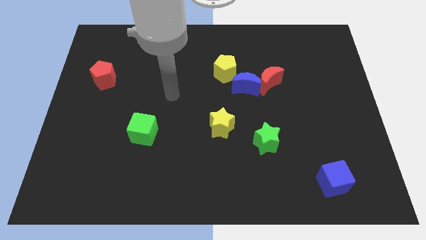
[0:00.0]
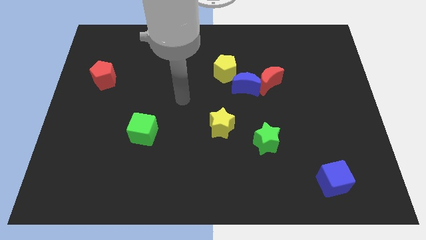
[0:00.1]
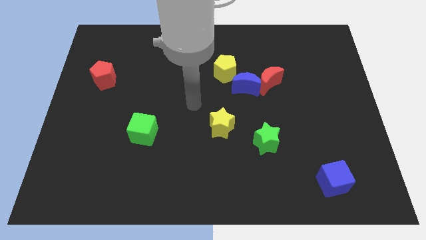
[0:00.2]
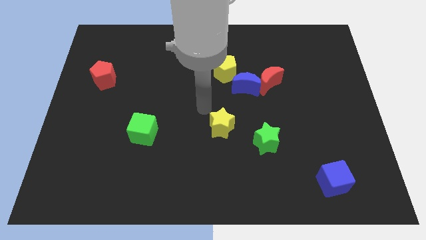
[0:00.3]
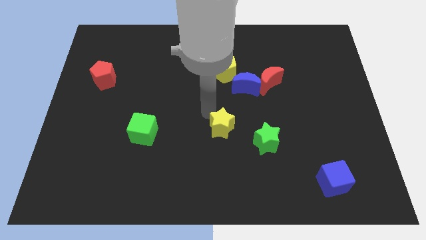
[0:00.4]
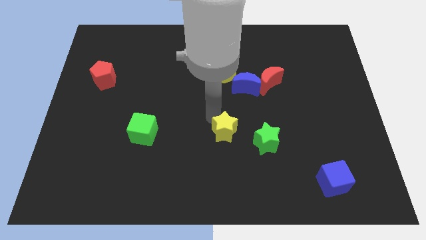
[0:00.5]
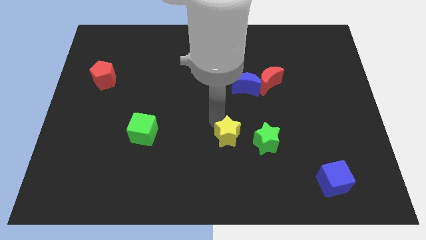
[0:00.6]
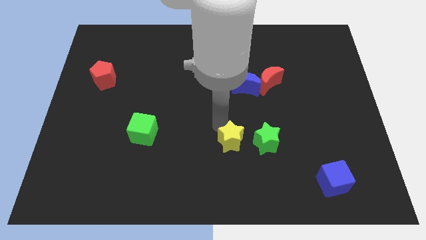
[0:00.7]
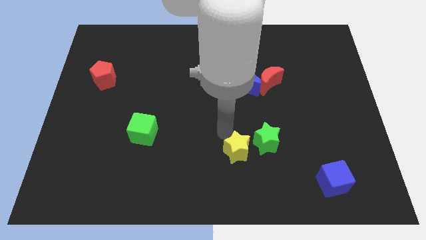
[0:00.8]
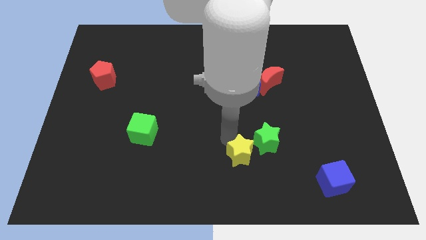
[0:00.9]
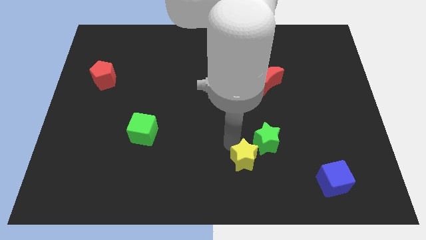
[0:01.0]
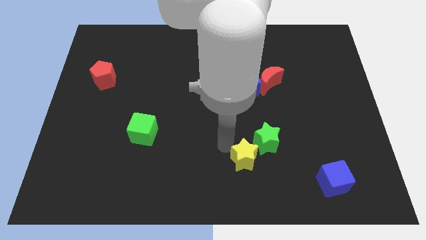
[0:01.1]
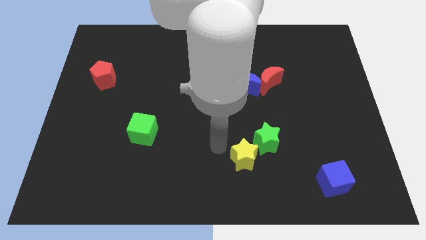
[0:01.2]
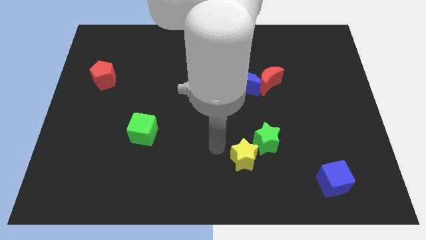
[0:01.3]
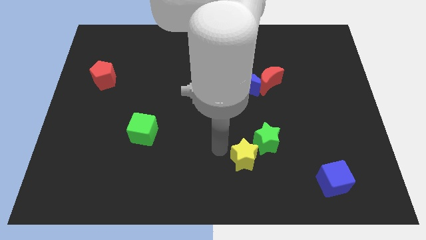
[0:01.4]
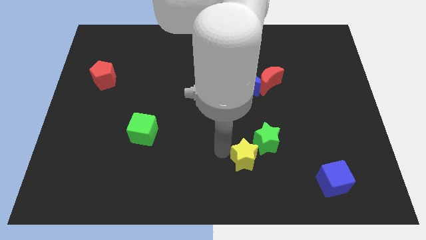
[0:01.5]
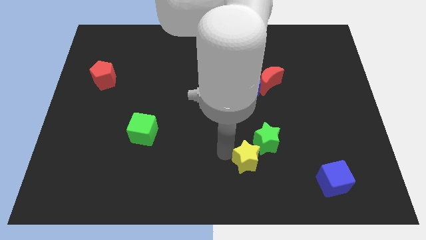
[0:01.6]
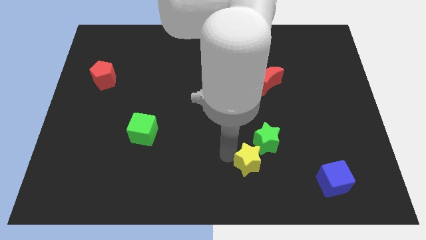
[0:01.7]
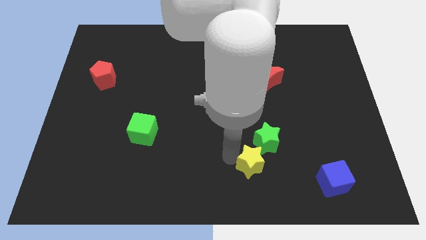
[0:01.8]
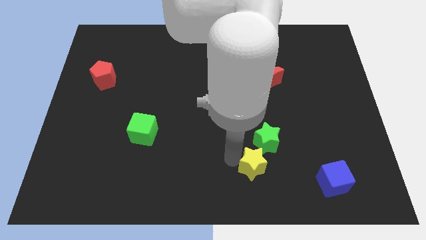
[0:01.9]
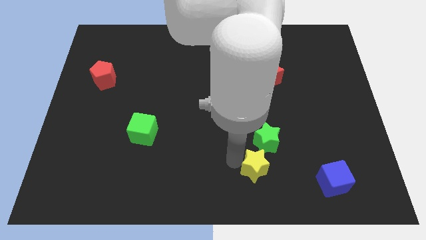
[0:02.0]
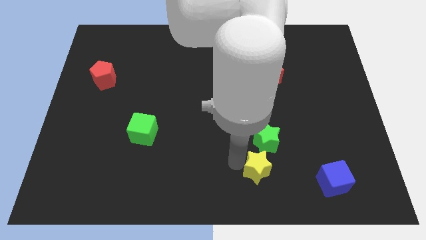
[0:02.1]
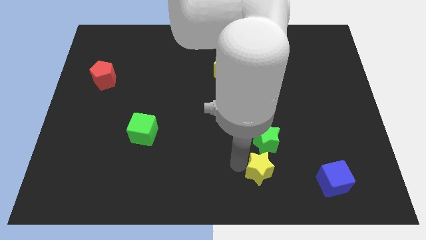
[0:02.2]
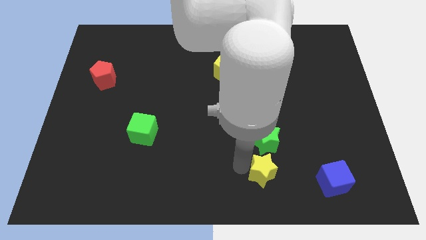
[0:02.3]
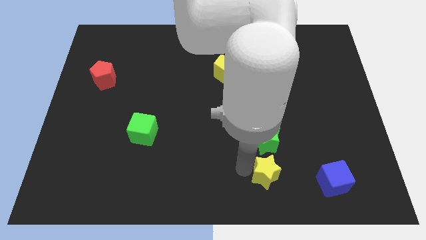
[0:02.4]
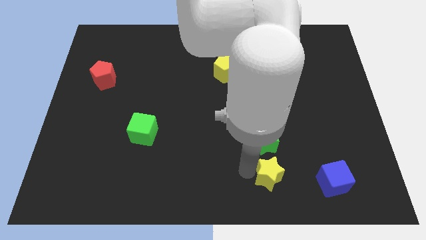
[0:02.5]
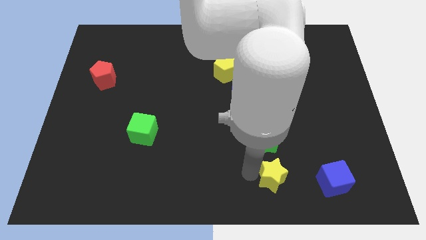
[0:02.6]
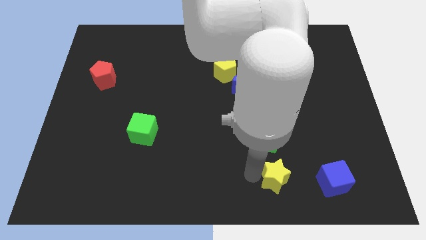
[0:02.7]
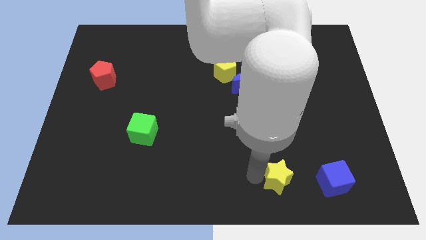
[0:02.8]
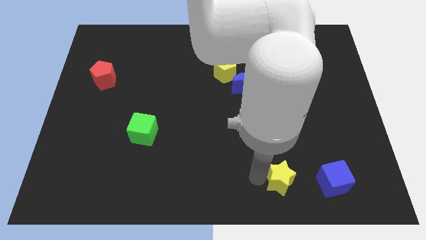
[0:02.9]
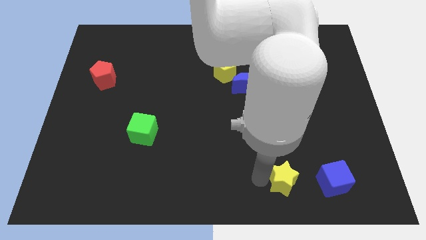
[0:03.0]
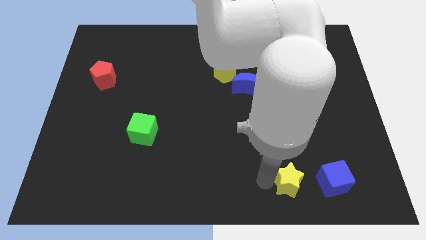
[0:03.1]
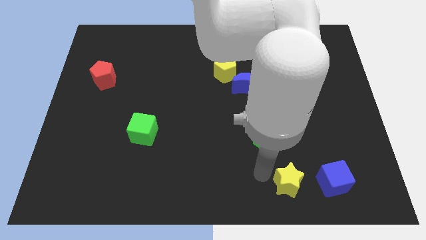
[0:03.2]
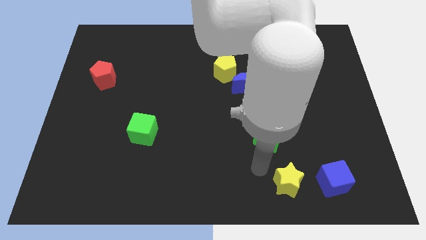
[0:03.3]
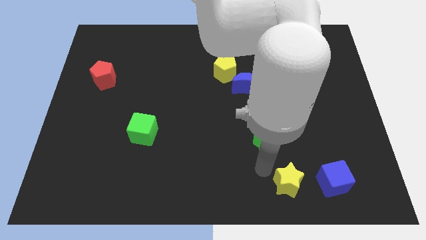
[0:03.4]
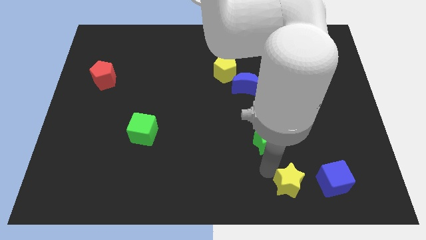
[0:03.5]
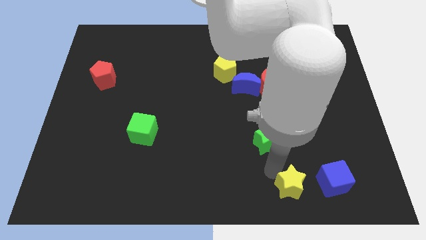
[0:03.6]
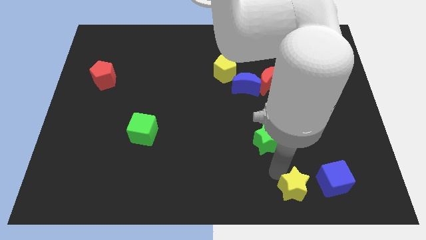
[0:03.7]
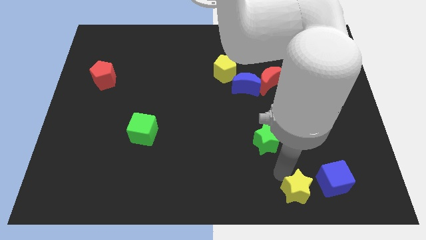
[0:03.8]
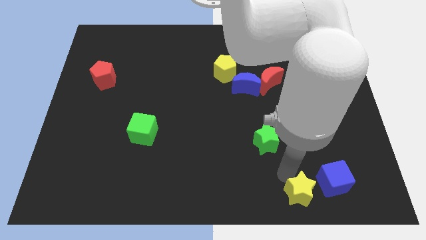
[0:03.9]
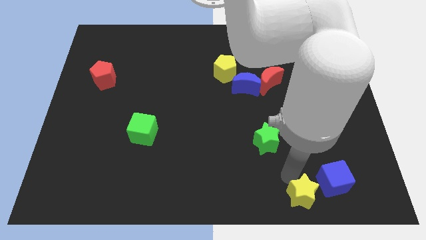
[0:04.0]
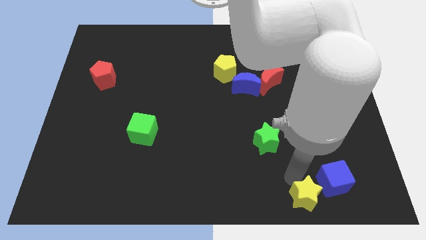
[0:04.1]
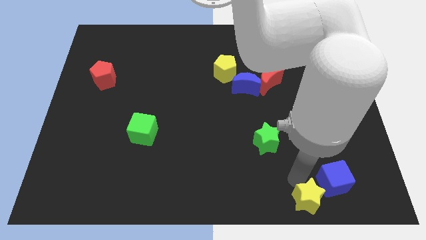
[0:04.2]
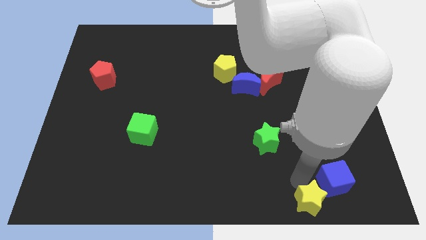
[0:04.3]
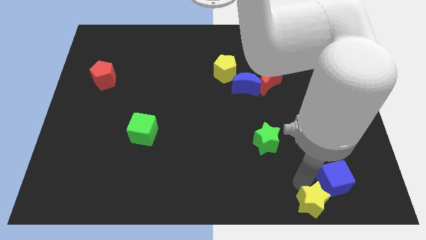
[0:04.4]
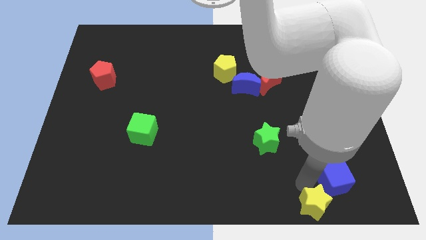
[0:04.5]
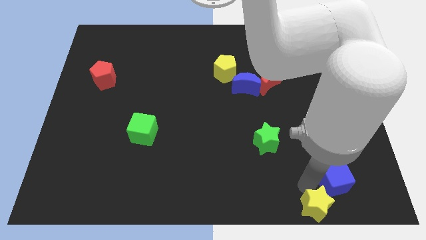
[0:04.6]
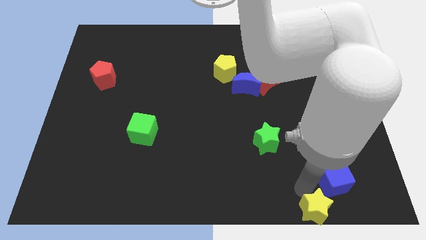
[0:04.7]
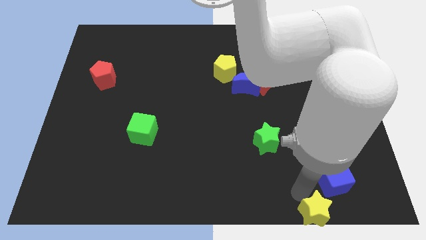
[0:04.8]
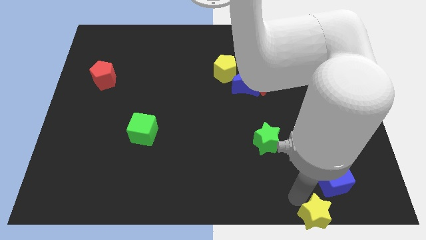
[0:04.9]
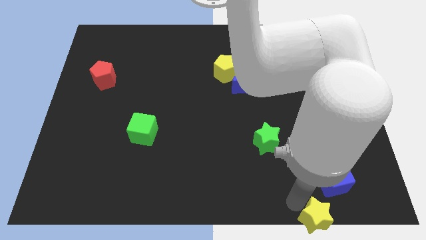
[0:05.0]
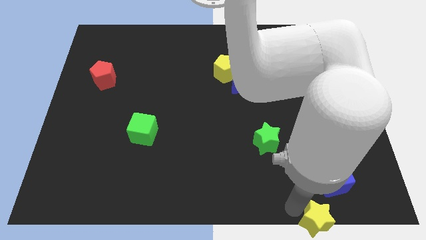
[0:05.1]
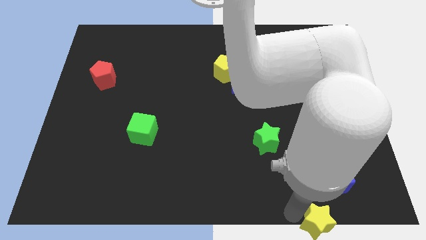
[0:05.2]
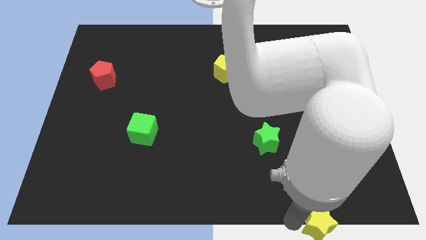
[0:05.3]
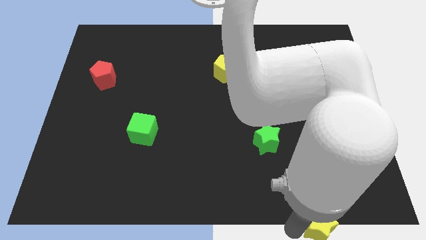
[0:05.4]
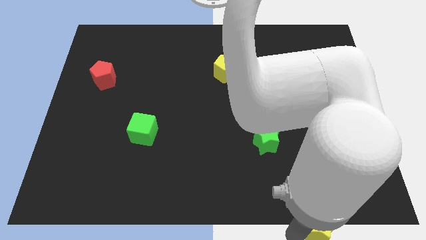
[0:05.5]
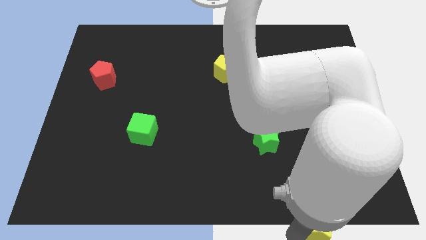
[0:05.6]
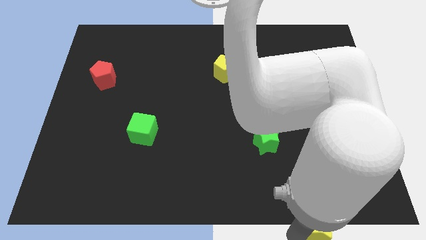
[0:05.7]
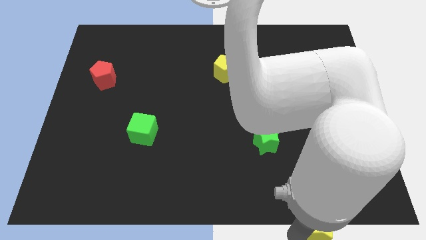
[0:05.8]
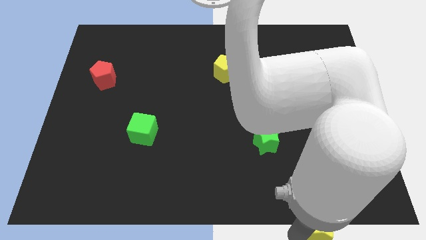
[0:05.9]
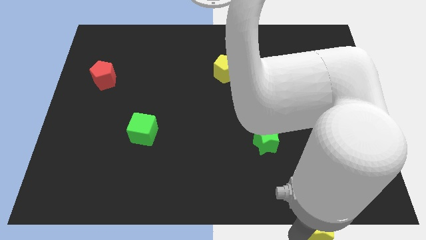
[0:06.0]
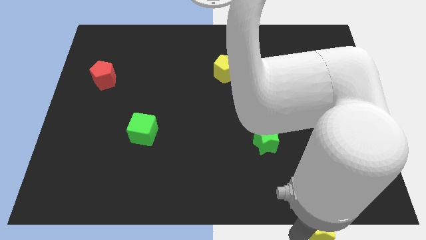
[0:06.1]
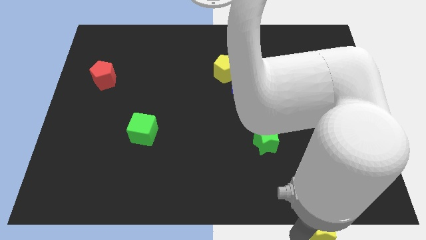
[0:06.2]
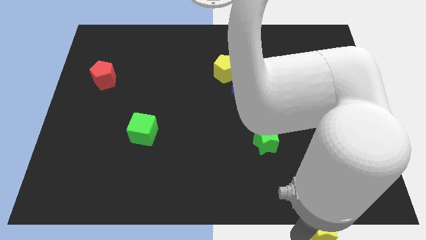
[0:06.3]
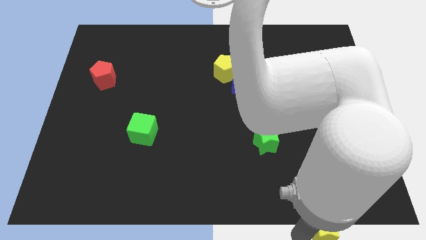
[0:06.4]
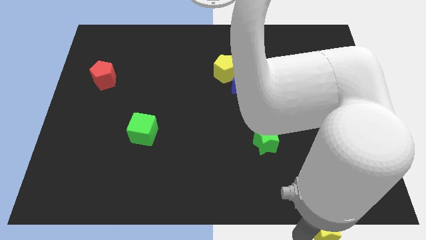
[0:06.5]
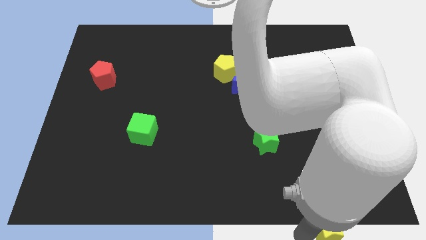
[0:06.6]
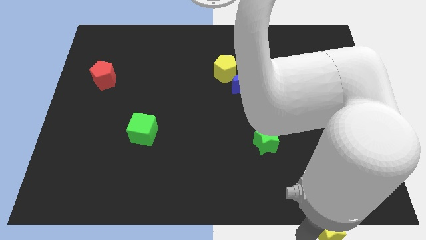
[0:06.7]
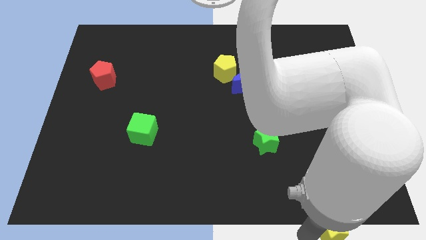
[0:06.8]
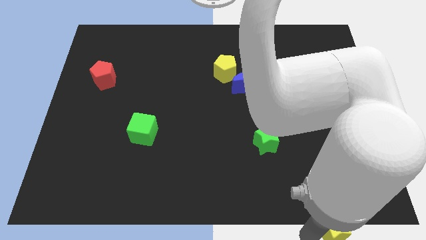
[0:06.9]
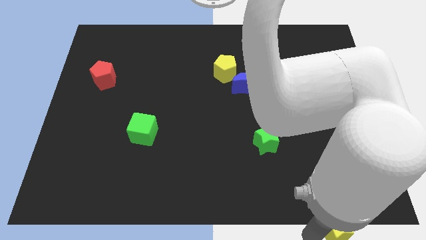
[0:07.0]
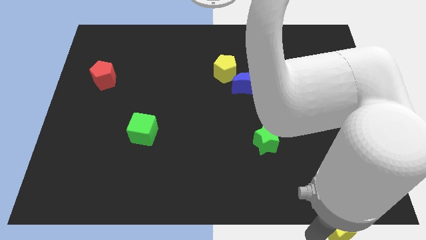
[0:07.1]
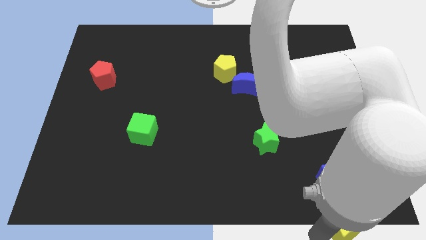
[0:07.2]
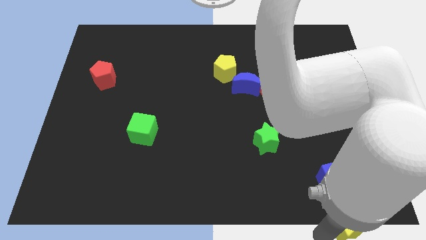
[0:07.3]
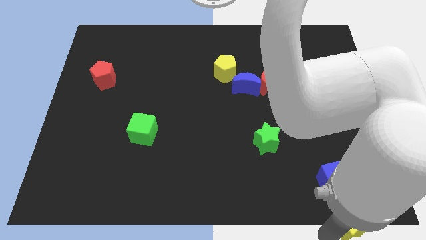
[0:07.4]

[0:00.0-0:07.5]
slide the yellow star to the bottom right
